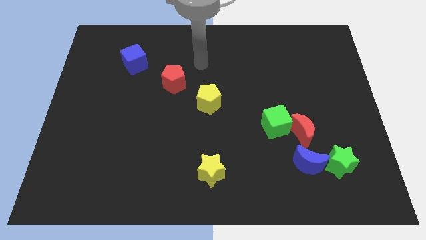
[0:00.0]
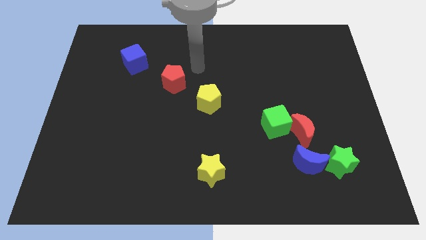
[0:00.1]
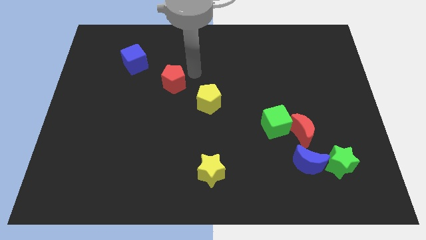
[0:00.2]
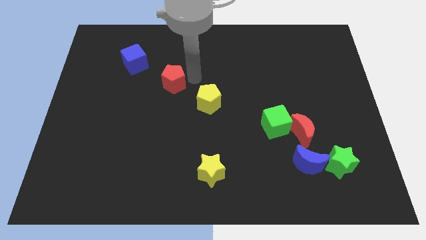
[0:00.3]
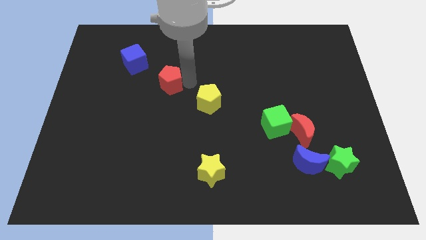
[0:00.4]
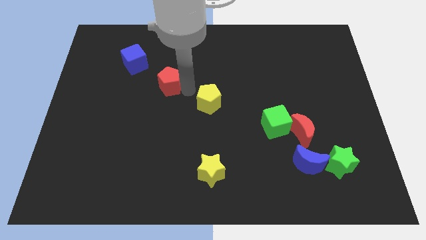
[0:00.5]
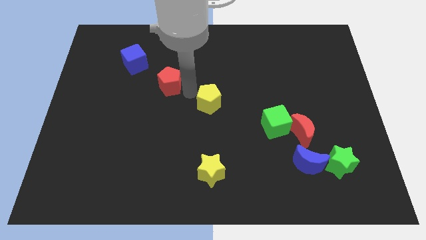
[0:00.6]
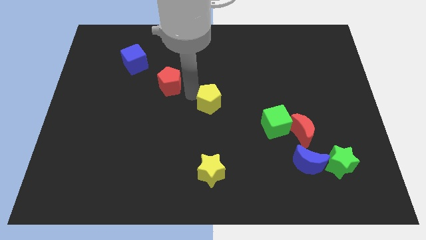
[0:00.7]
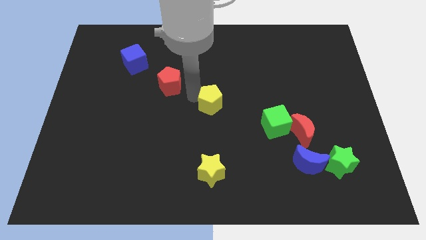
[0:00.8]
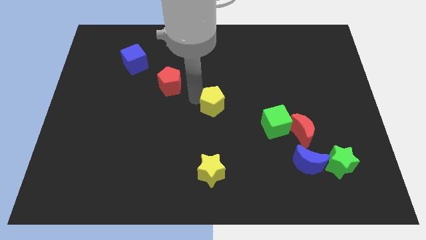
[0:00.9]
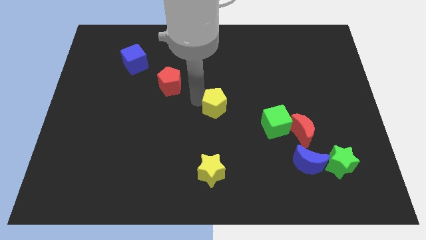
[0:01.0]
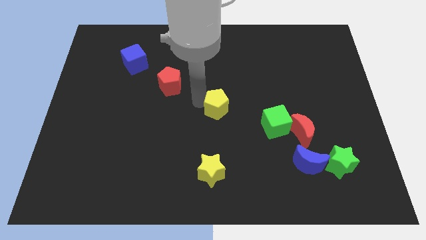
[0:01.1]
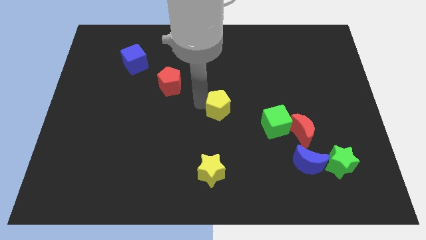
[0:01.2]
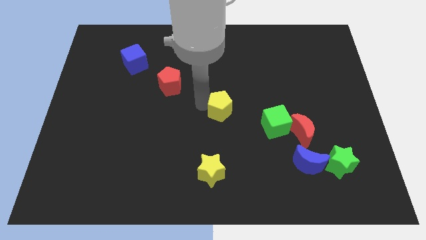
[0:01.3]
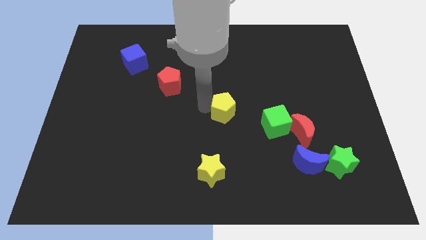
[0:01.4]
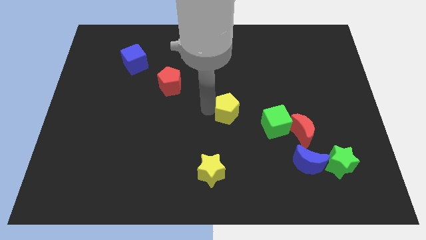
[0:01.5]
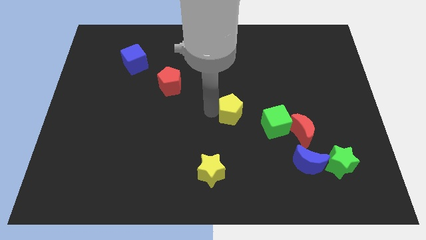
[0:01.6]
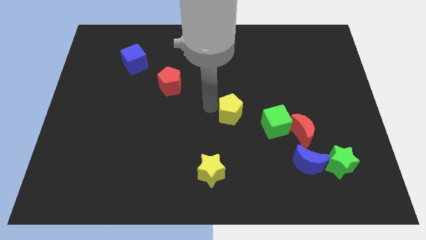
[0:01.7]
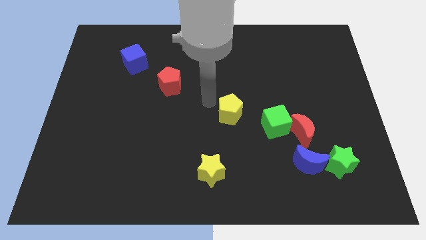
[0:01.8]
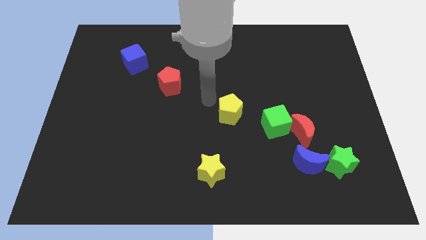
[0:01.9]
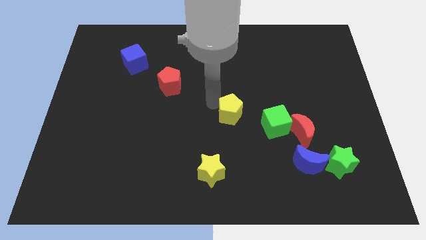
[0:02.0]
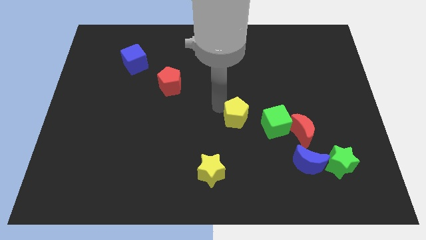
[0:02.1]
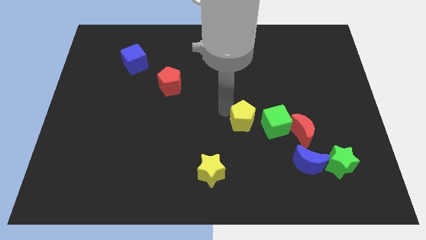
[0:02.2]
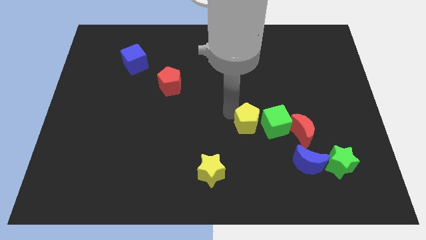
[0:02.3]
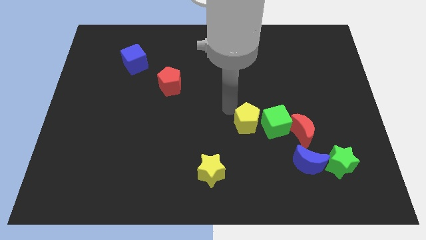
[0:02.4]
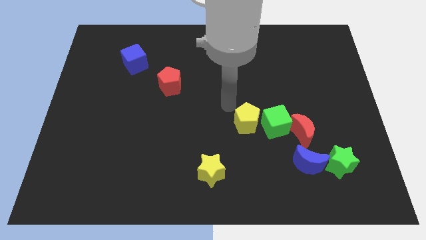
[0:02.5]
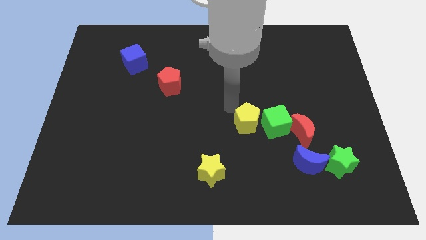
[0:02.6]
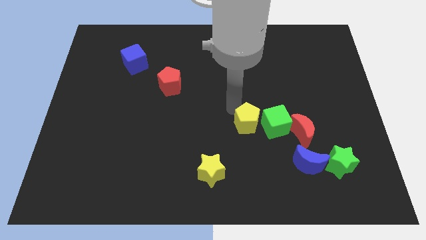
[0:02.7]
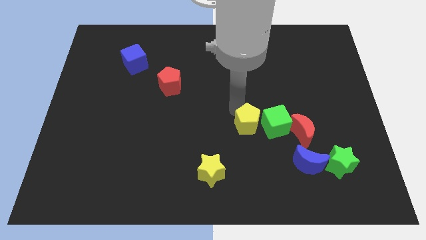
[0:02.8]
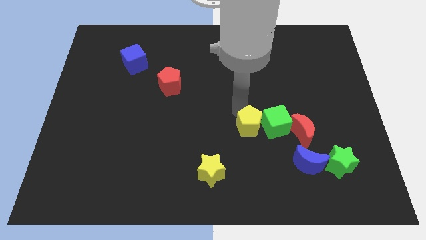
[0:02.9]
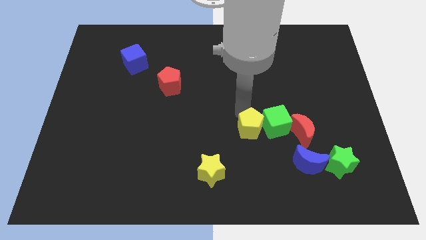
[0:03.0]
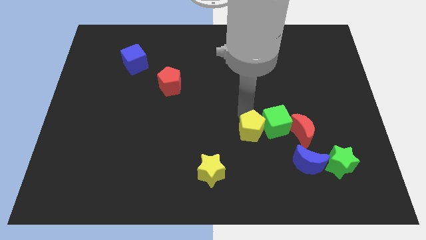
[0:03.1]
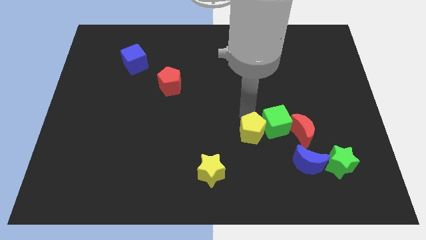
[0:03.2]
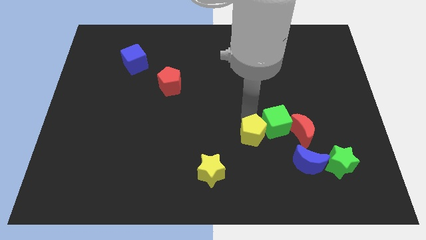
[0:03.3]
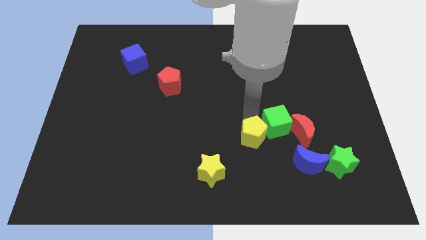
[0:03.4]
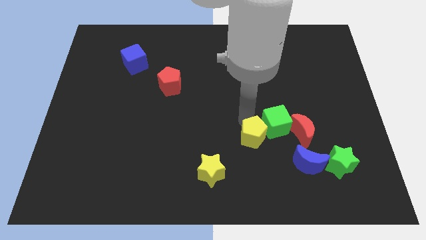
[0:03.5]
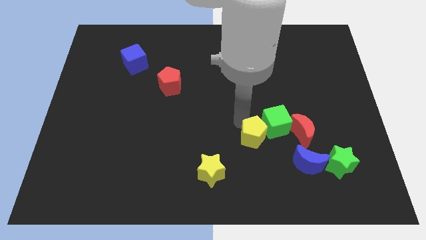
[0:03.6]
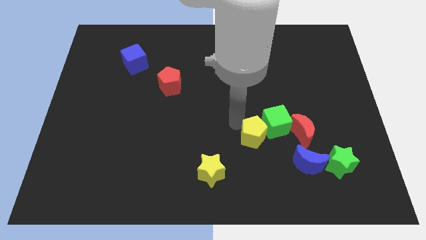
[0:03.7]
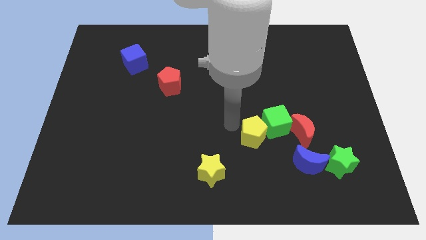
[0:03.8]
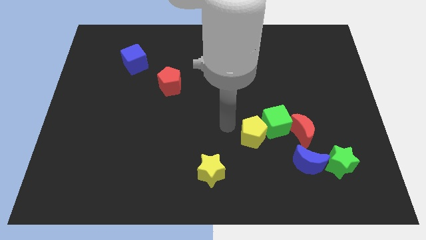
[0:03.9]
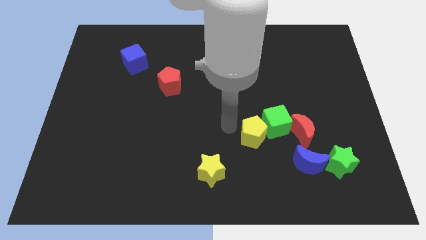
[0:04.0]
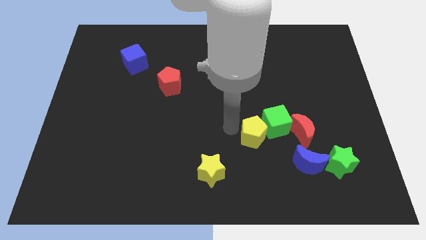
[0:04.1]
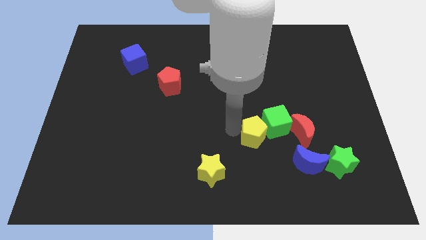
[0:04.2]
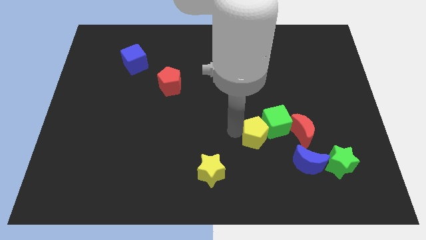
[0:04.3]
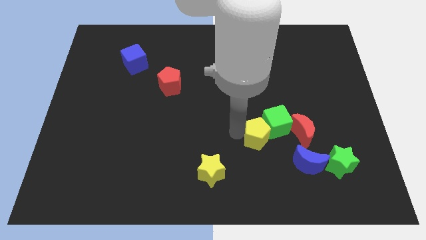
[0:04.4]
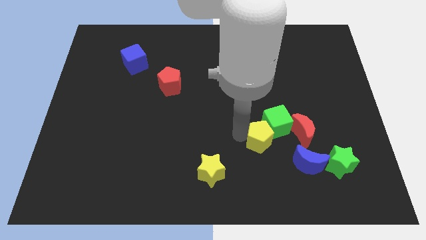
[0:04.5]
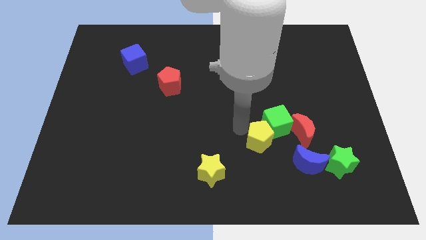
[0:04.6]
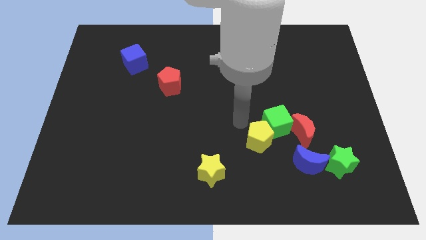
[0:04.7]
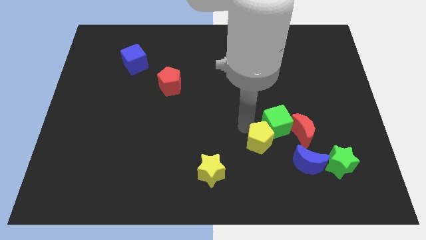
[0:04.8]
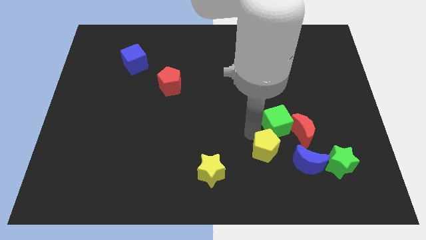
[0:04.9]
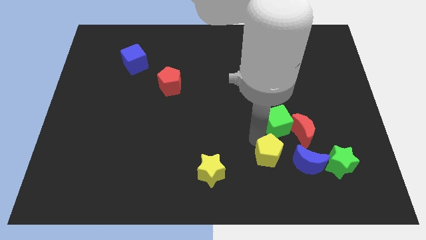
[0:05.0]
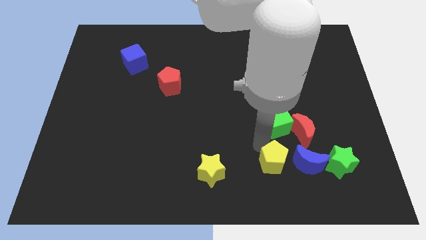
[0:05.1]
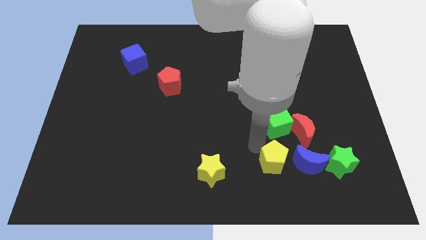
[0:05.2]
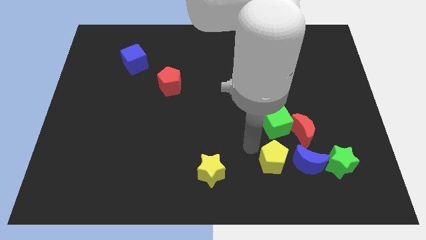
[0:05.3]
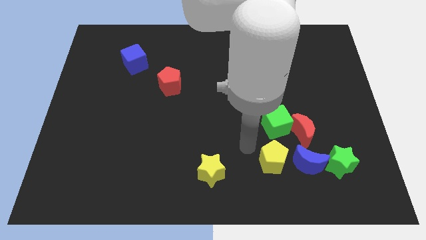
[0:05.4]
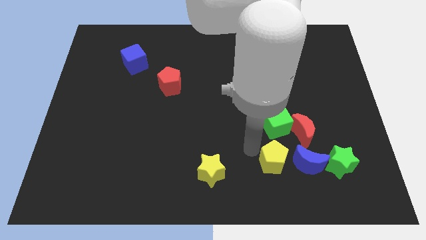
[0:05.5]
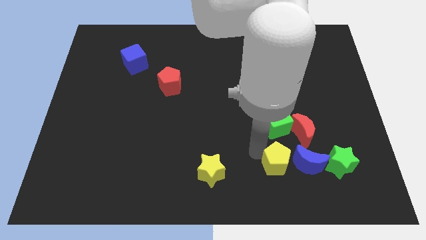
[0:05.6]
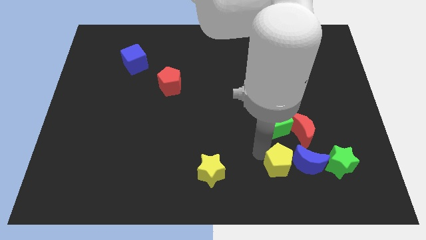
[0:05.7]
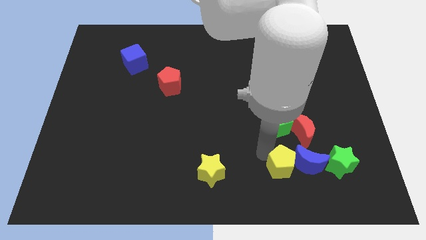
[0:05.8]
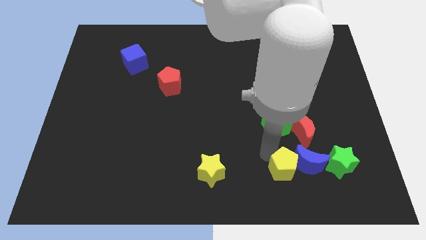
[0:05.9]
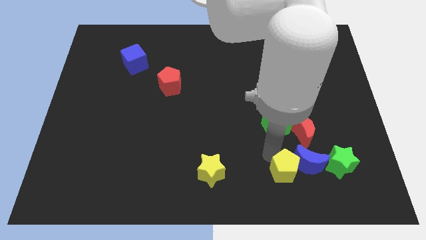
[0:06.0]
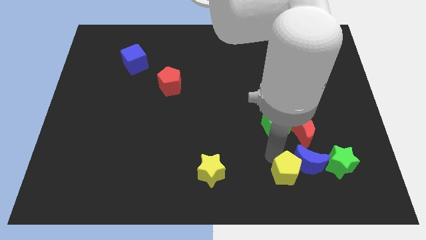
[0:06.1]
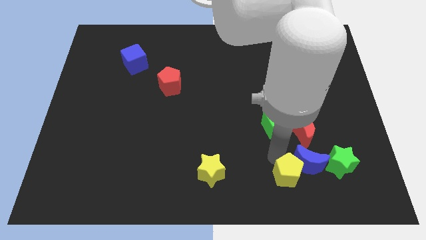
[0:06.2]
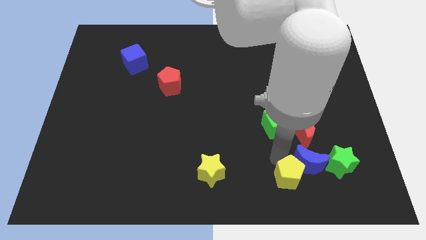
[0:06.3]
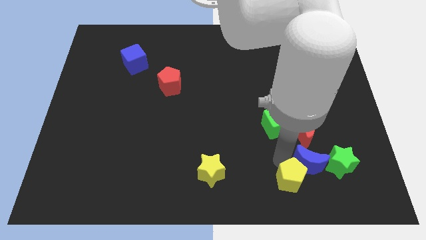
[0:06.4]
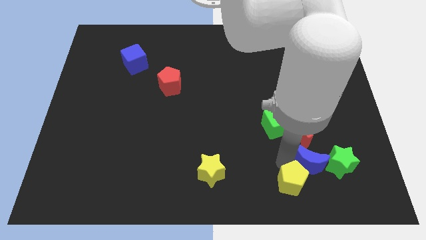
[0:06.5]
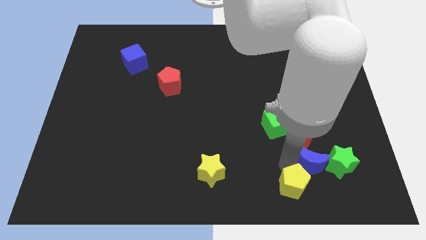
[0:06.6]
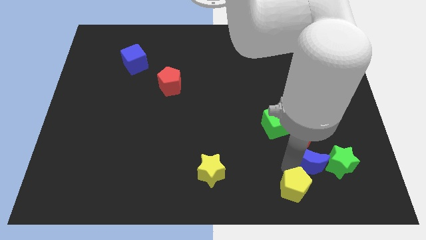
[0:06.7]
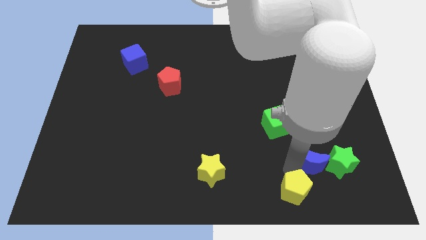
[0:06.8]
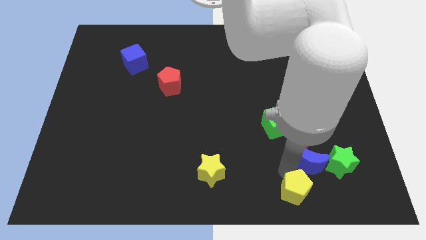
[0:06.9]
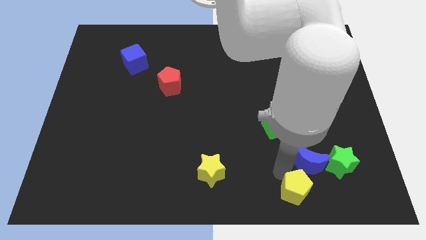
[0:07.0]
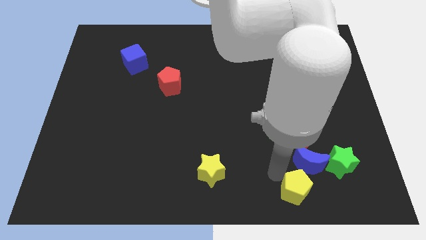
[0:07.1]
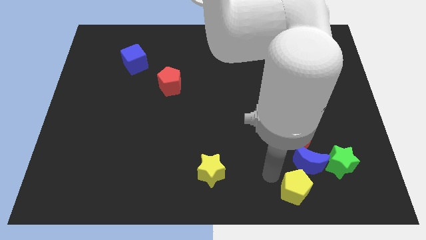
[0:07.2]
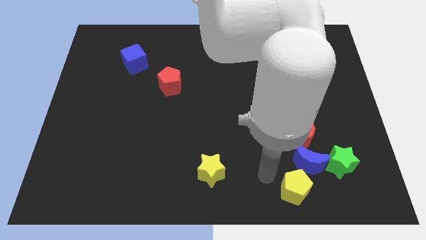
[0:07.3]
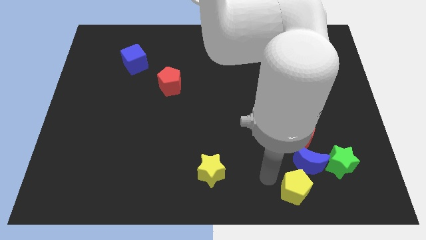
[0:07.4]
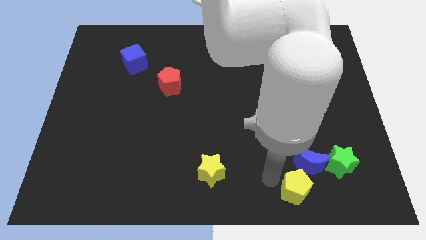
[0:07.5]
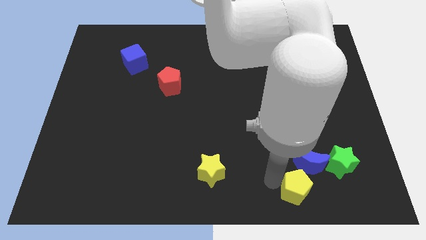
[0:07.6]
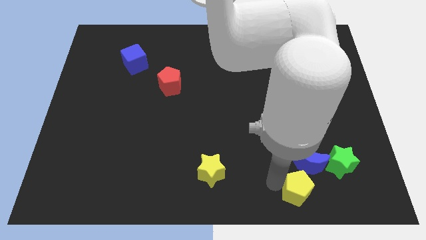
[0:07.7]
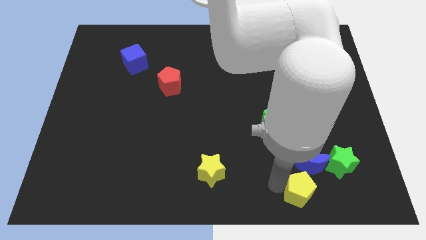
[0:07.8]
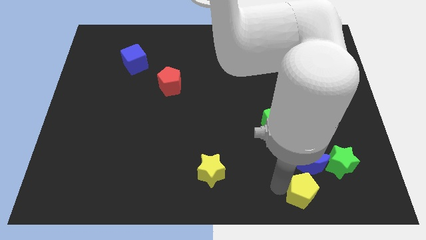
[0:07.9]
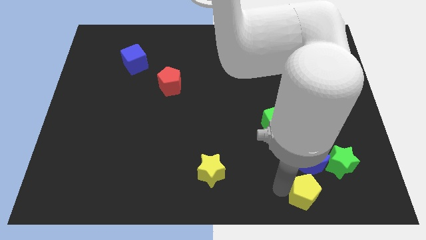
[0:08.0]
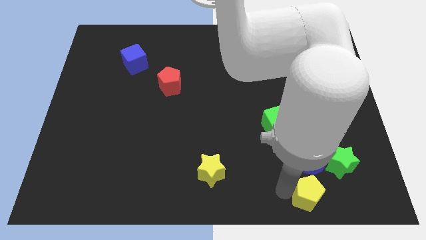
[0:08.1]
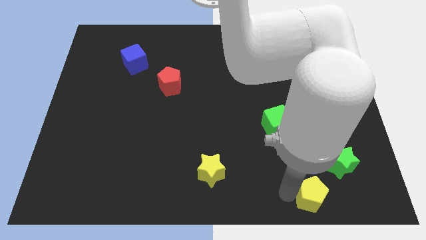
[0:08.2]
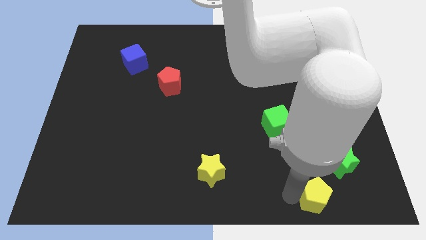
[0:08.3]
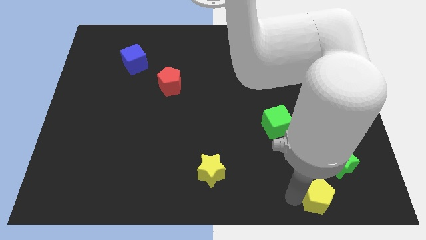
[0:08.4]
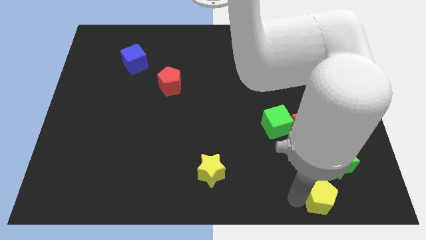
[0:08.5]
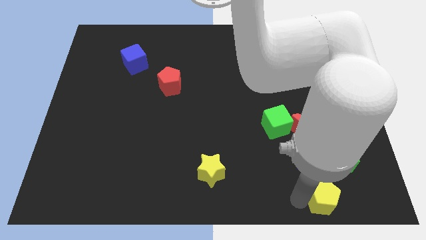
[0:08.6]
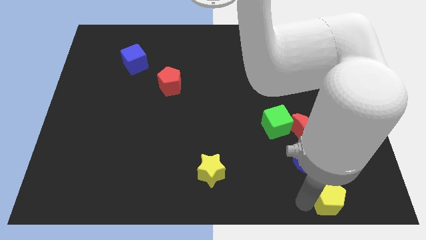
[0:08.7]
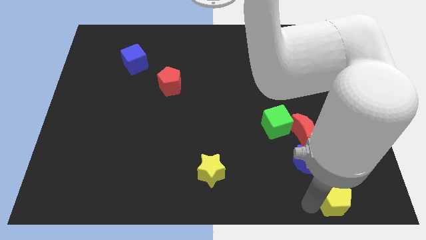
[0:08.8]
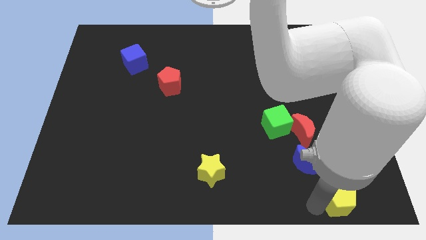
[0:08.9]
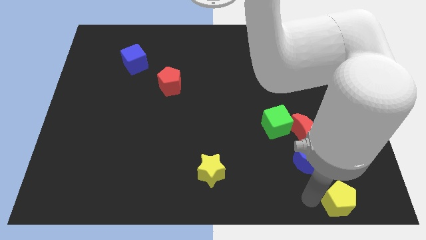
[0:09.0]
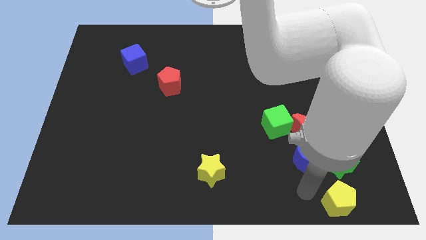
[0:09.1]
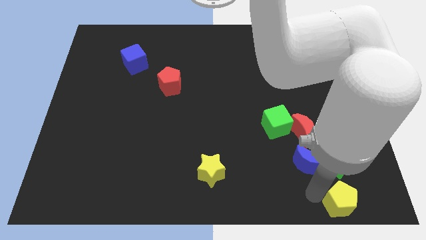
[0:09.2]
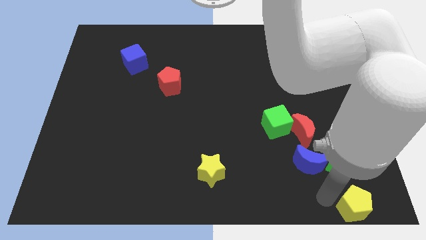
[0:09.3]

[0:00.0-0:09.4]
put the yellow pentagon to the bottom right
